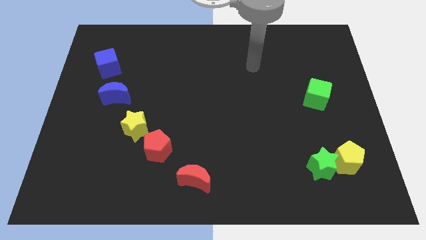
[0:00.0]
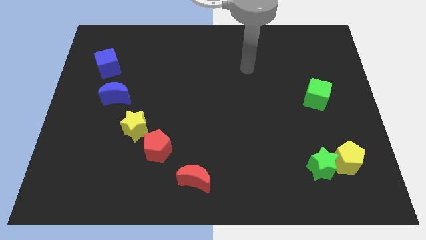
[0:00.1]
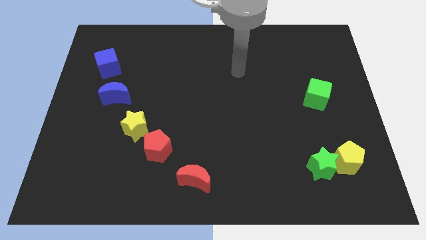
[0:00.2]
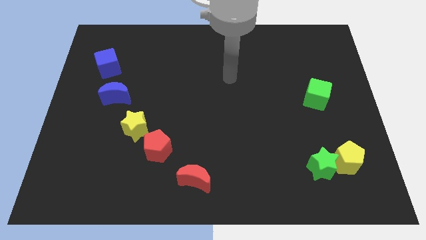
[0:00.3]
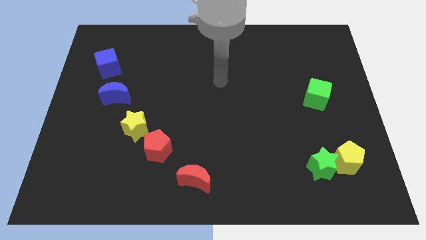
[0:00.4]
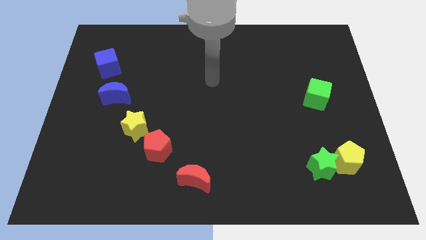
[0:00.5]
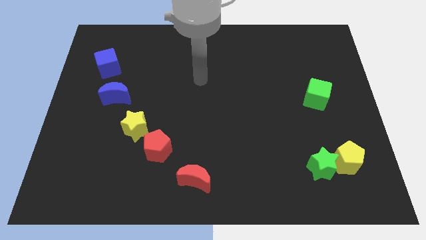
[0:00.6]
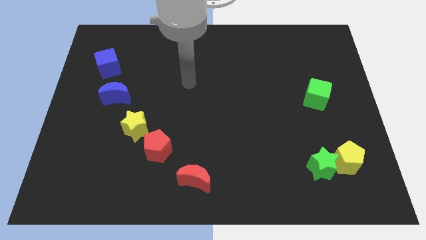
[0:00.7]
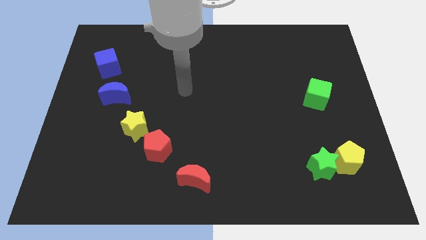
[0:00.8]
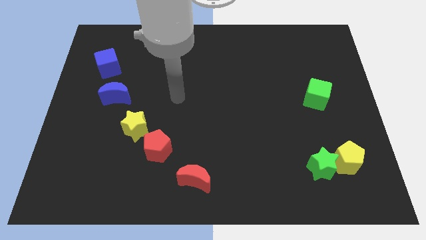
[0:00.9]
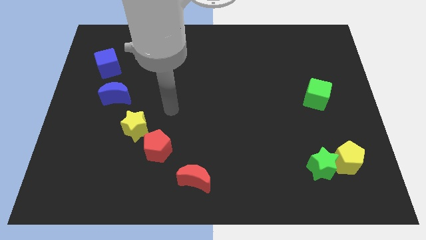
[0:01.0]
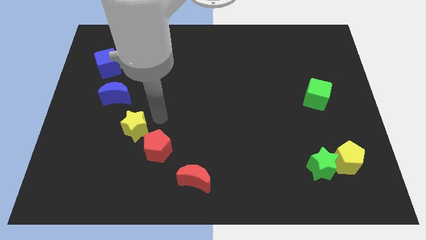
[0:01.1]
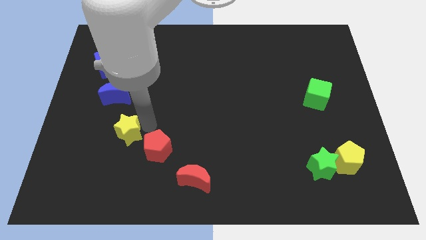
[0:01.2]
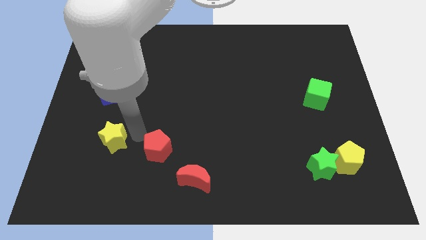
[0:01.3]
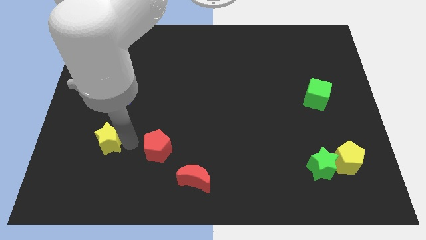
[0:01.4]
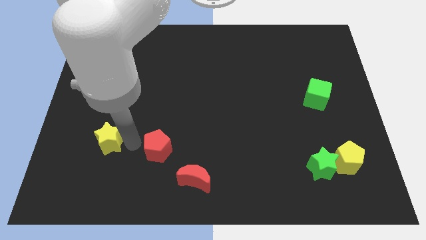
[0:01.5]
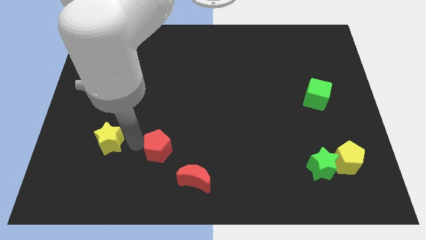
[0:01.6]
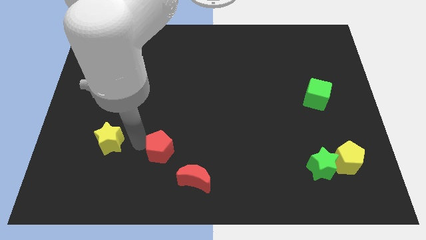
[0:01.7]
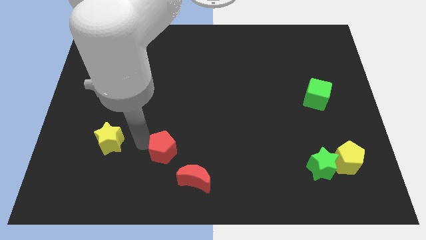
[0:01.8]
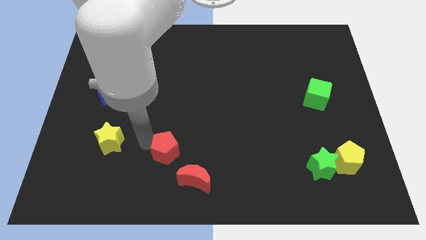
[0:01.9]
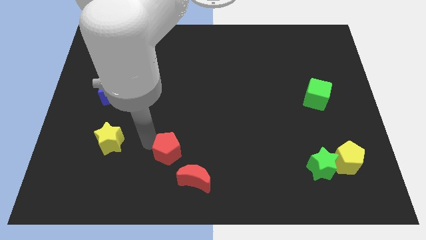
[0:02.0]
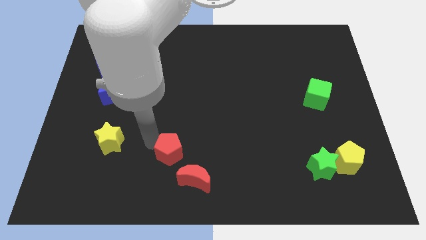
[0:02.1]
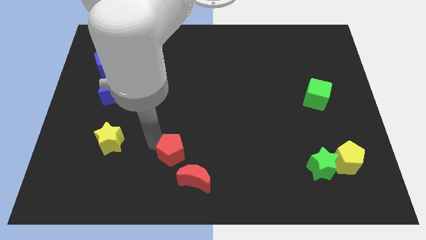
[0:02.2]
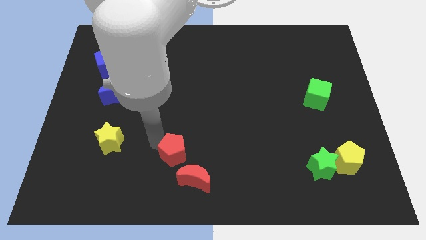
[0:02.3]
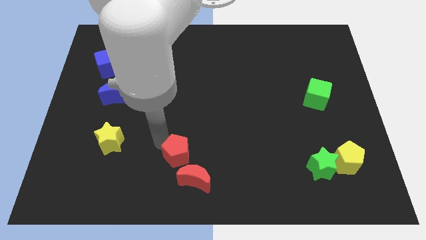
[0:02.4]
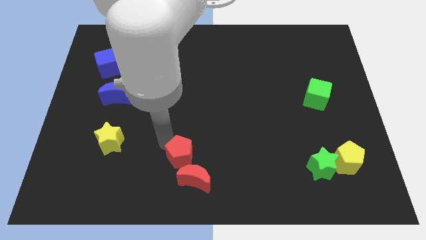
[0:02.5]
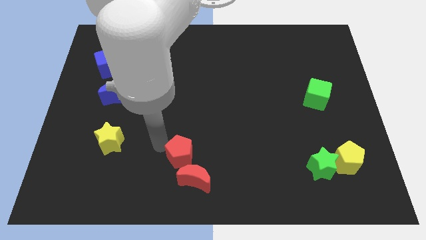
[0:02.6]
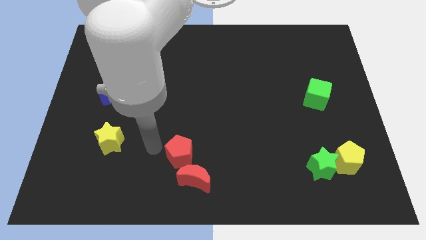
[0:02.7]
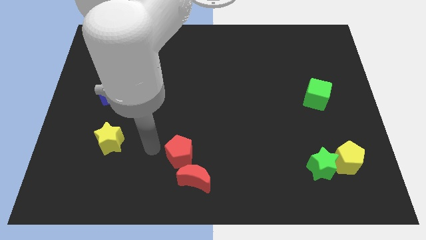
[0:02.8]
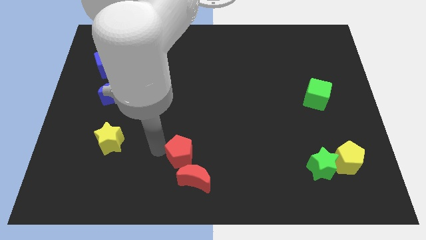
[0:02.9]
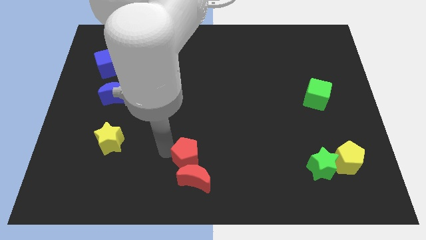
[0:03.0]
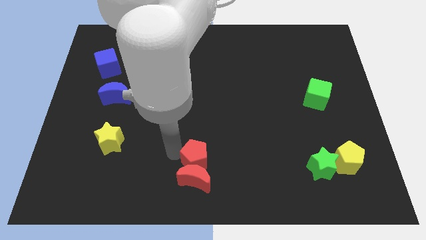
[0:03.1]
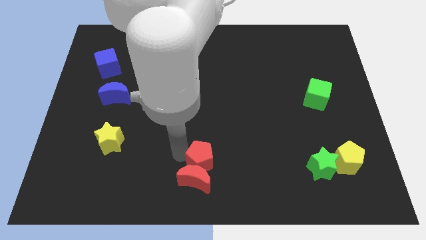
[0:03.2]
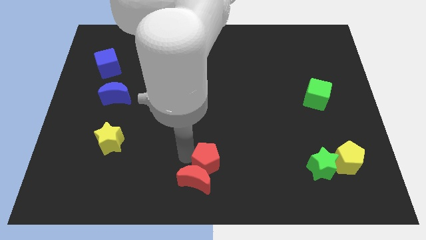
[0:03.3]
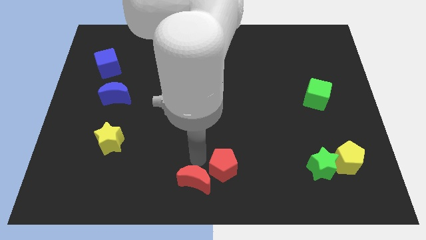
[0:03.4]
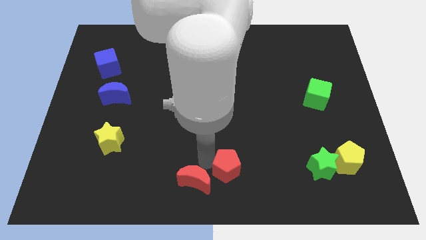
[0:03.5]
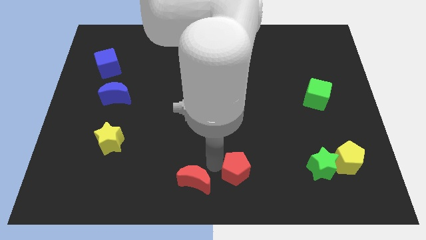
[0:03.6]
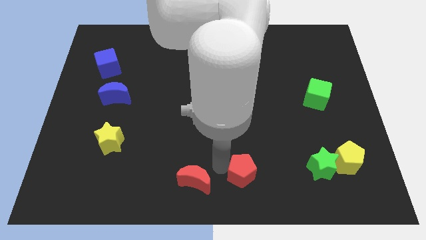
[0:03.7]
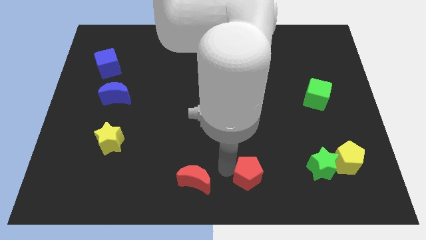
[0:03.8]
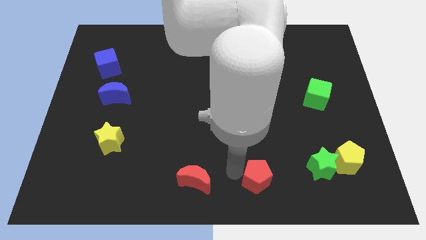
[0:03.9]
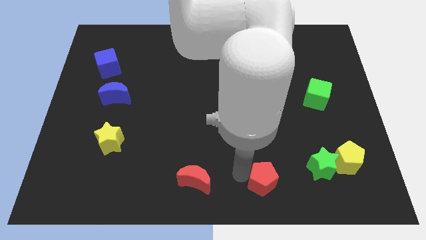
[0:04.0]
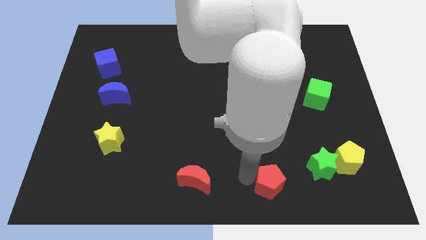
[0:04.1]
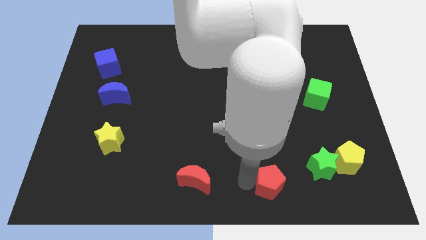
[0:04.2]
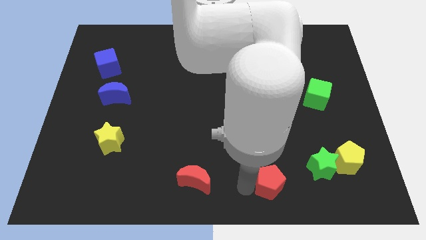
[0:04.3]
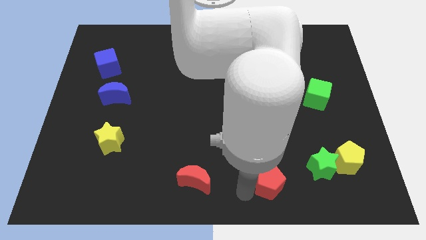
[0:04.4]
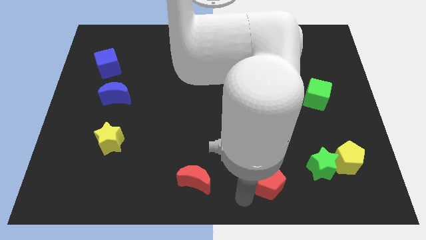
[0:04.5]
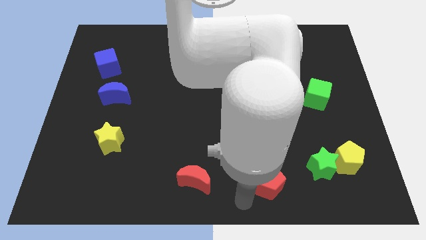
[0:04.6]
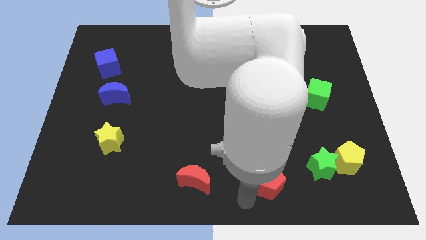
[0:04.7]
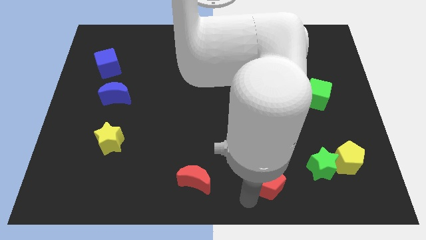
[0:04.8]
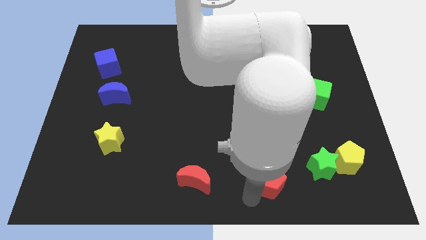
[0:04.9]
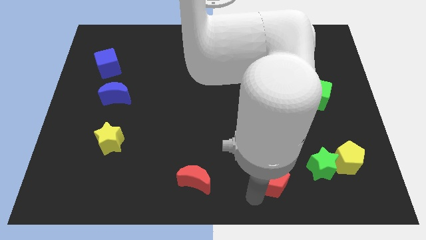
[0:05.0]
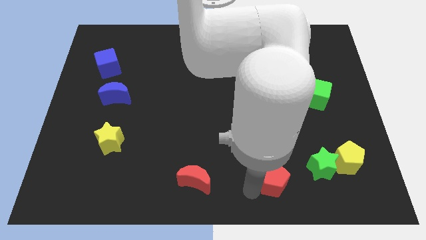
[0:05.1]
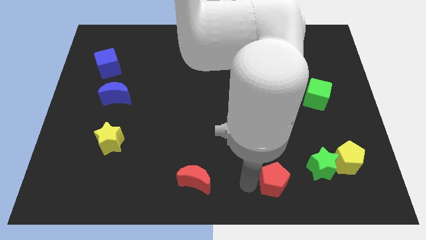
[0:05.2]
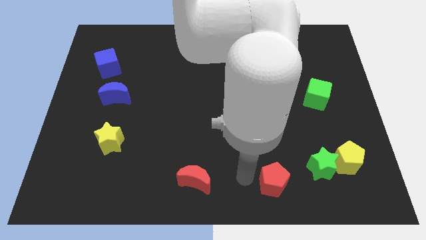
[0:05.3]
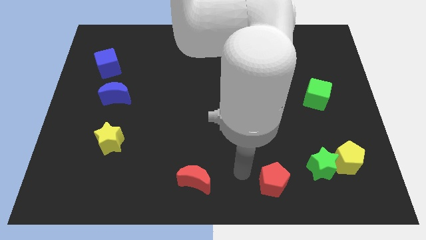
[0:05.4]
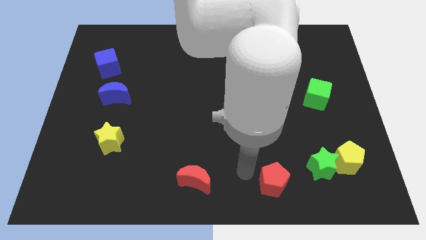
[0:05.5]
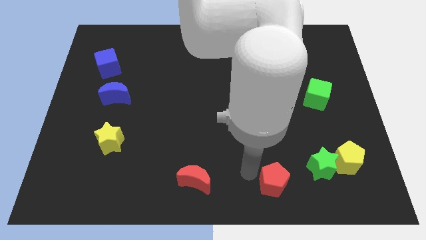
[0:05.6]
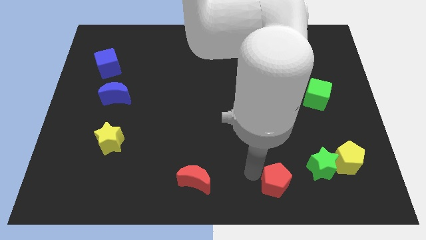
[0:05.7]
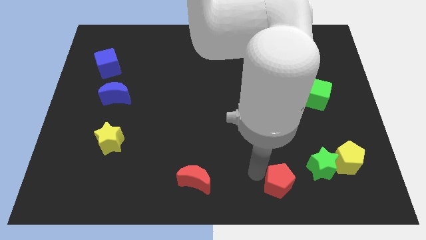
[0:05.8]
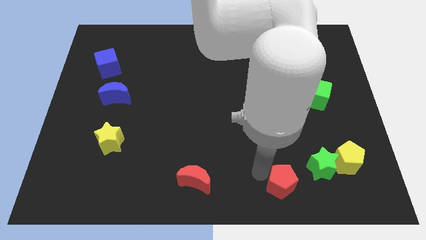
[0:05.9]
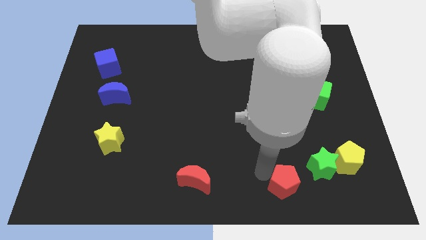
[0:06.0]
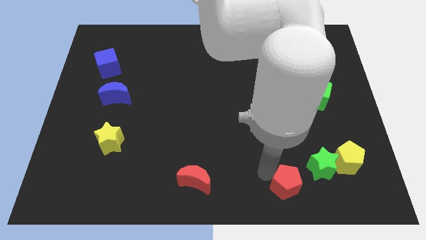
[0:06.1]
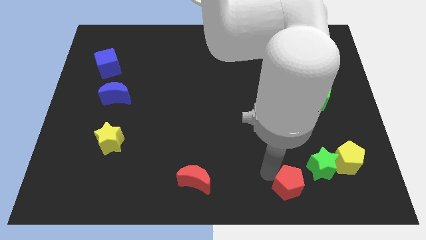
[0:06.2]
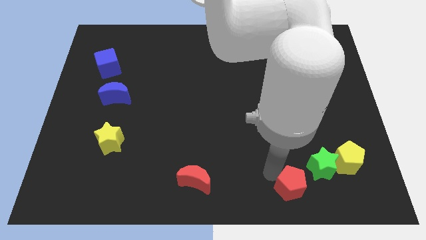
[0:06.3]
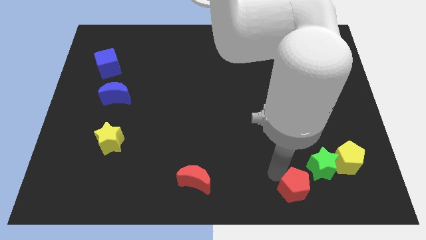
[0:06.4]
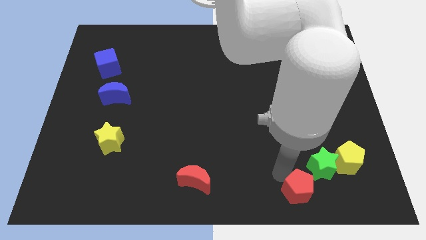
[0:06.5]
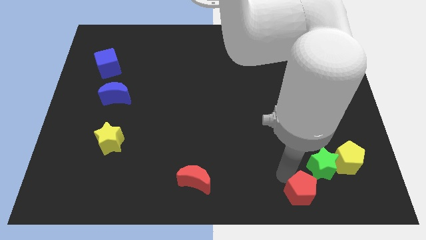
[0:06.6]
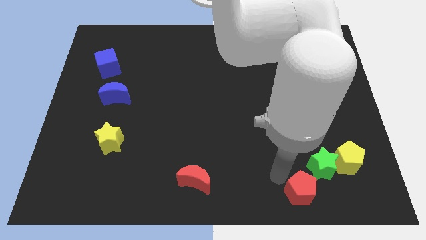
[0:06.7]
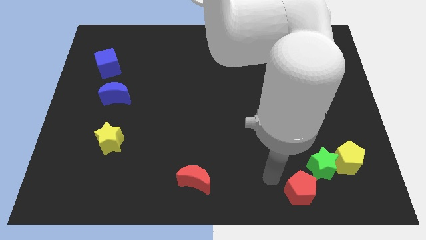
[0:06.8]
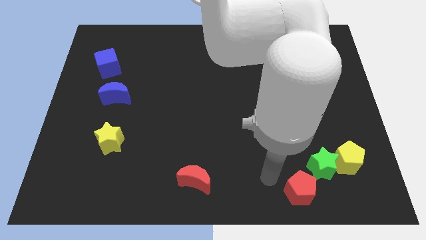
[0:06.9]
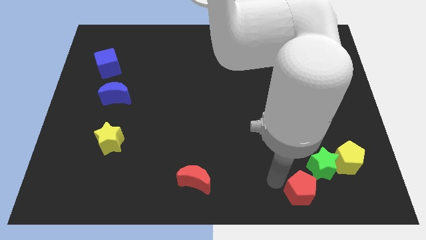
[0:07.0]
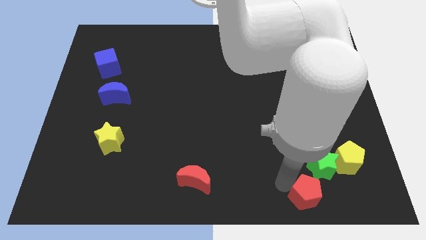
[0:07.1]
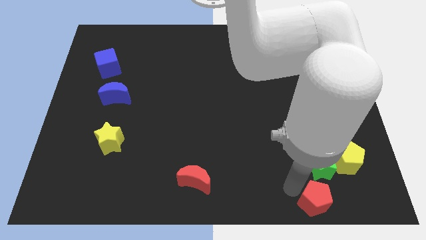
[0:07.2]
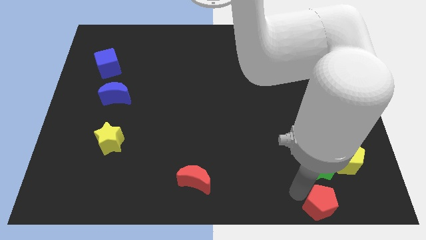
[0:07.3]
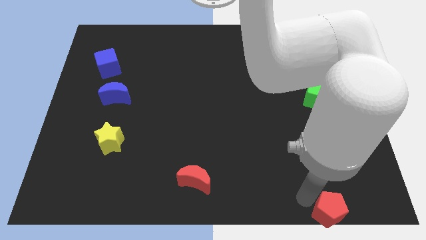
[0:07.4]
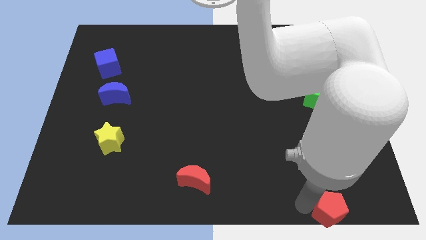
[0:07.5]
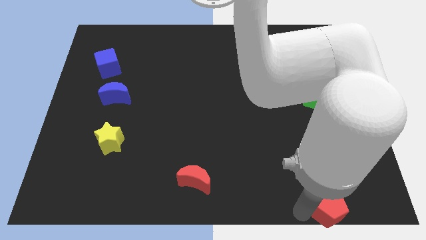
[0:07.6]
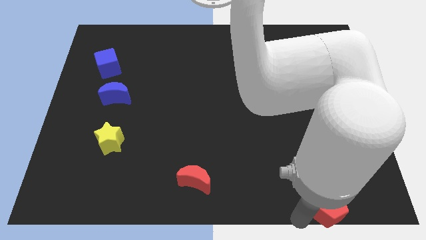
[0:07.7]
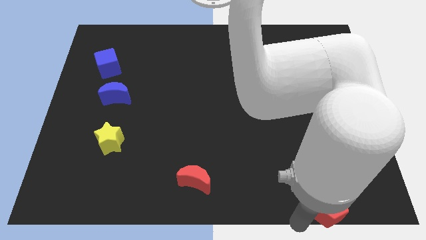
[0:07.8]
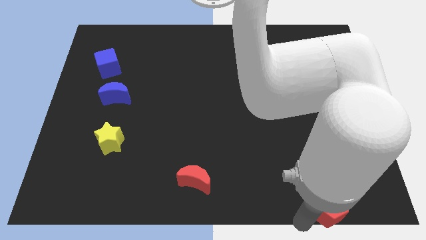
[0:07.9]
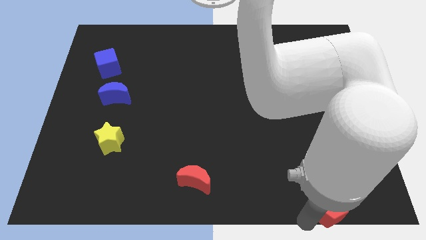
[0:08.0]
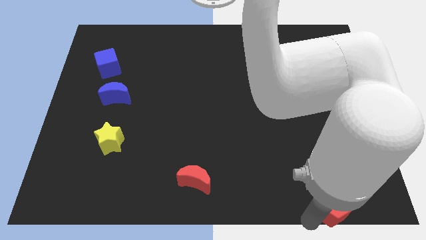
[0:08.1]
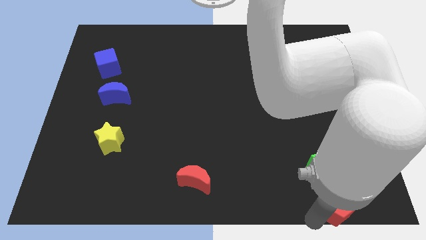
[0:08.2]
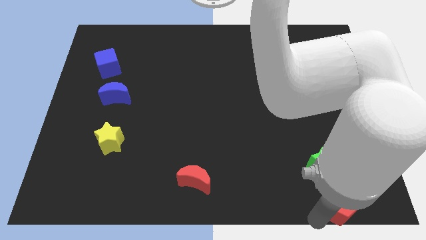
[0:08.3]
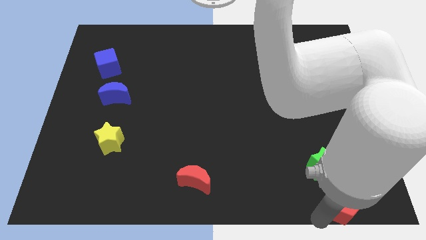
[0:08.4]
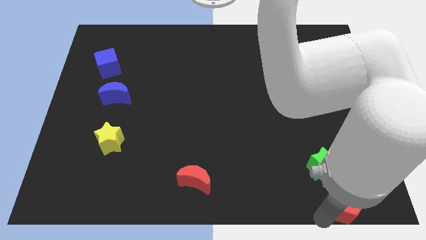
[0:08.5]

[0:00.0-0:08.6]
slide the red pentagon to the bottom right of the board
